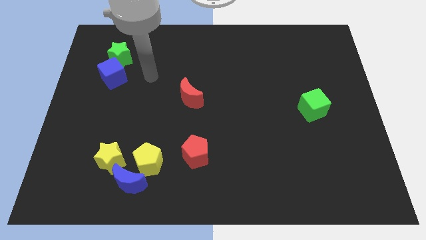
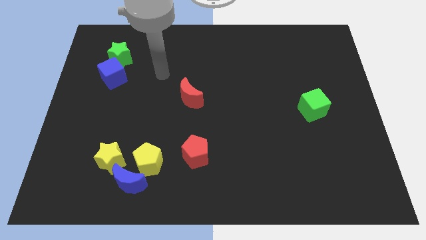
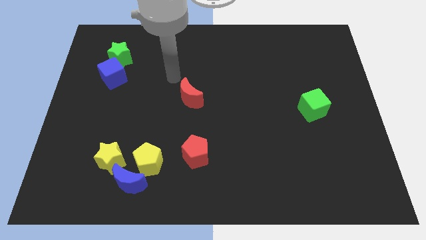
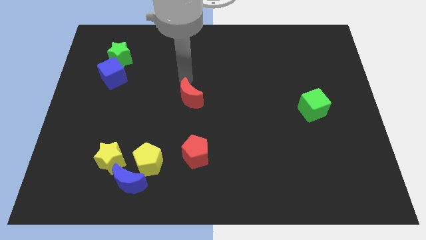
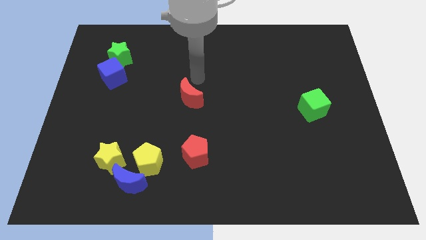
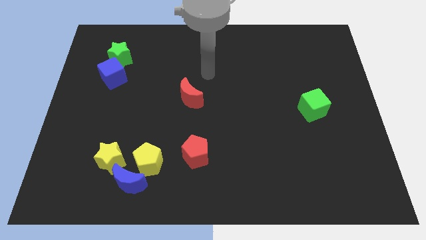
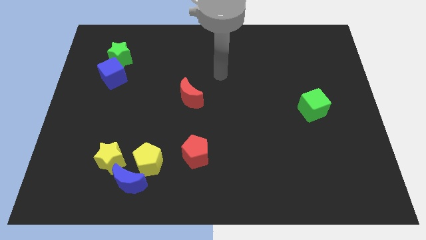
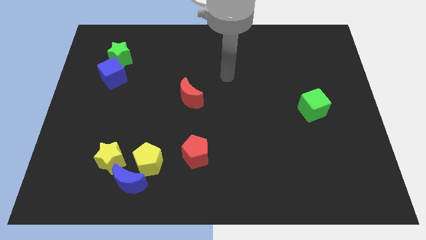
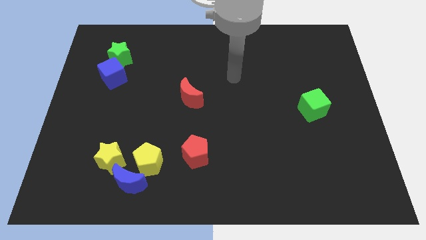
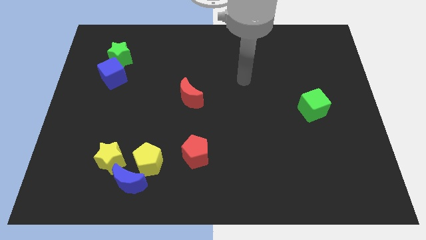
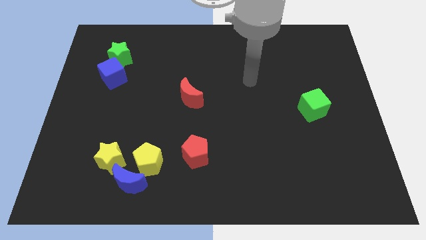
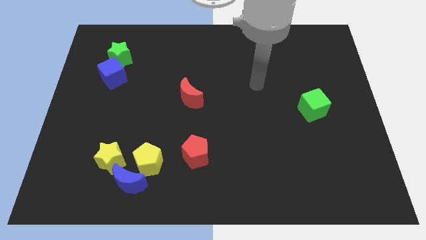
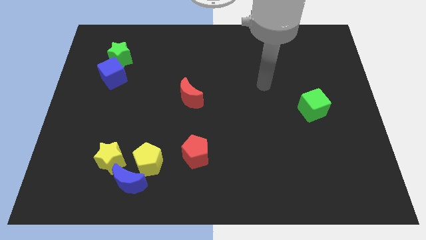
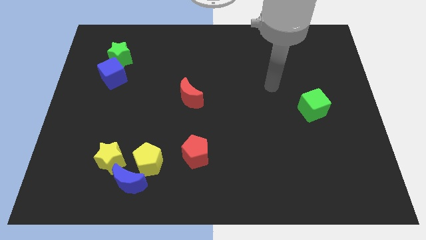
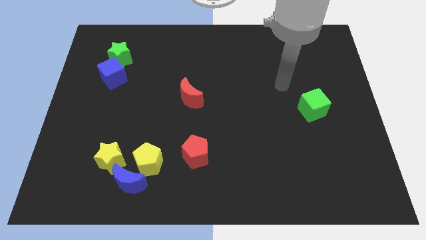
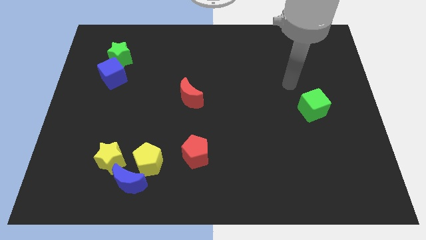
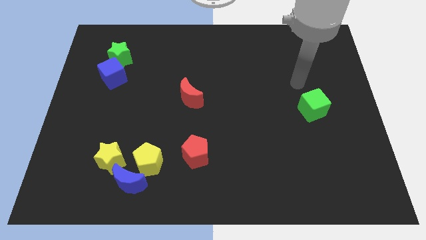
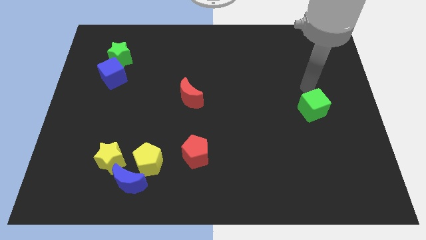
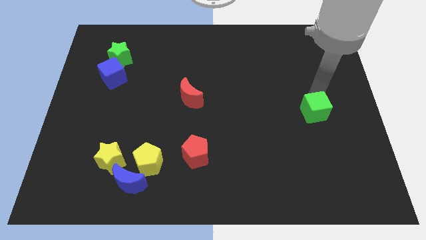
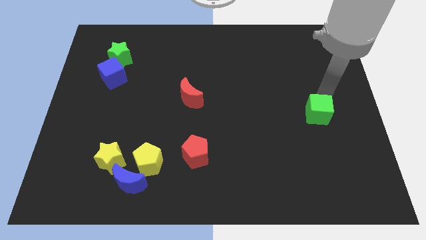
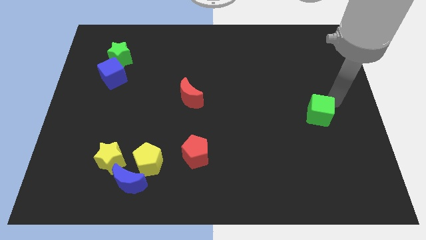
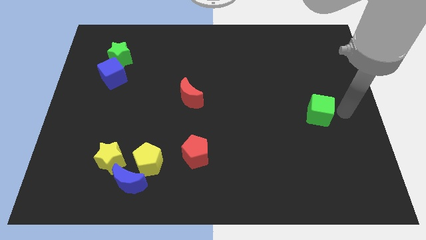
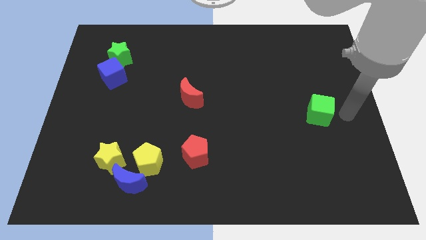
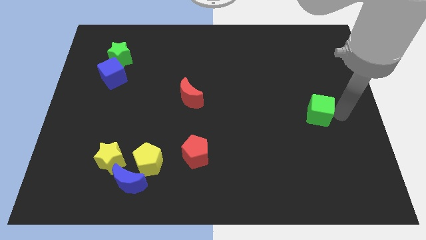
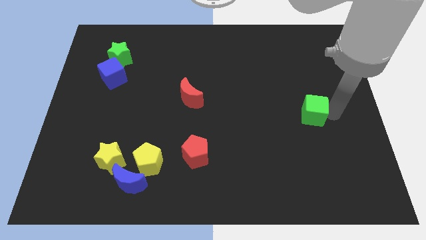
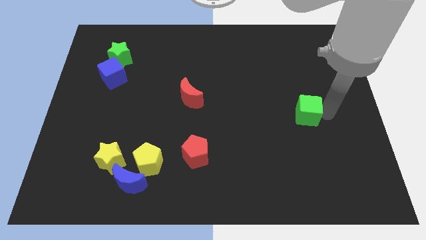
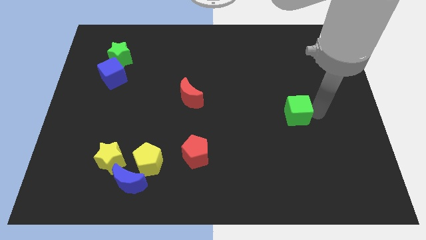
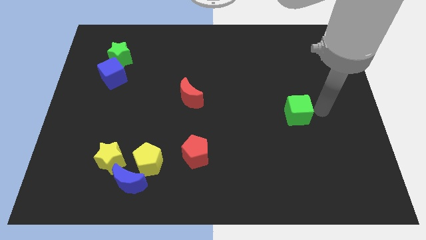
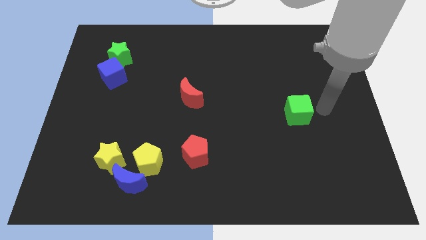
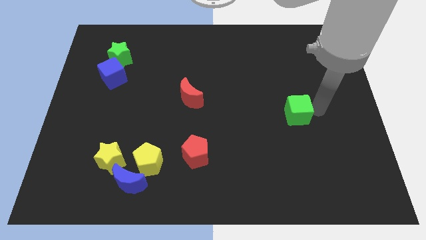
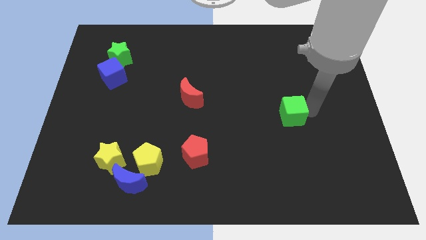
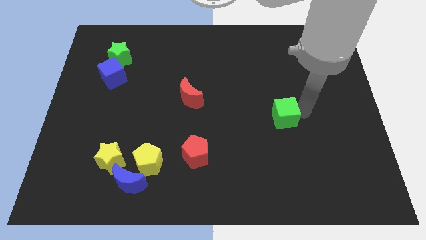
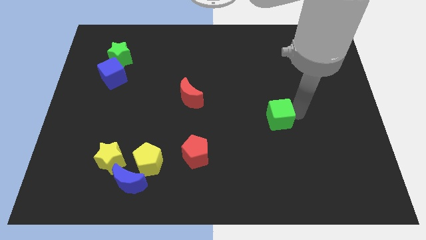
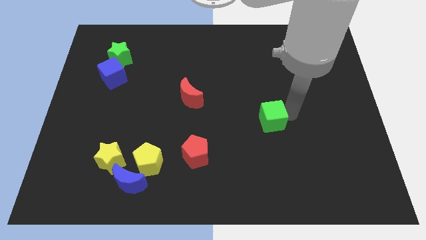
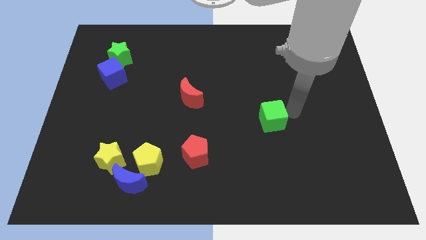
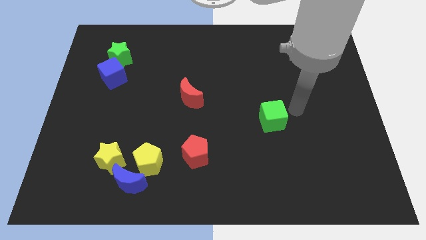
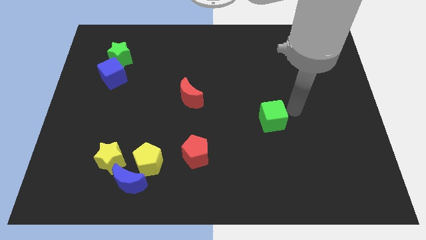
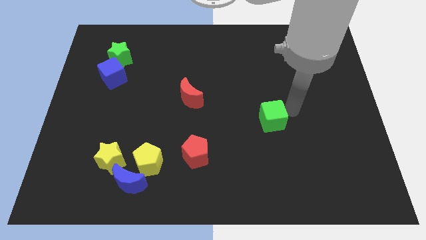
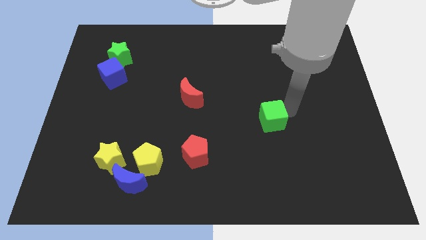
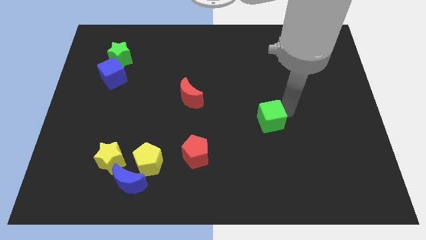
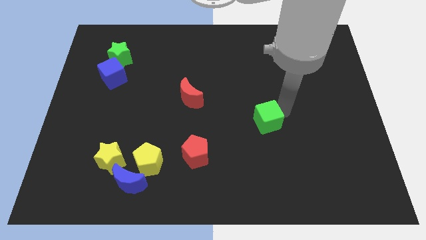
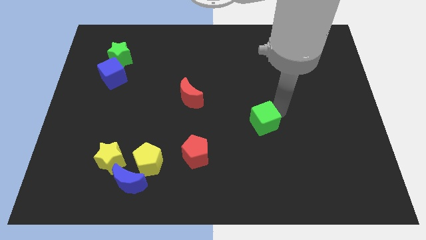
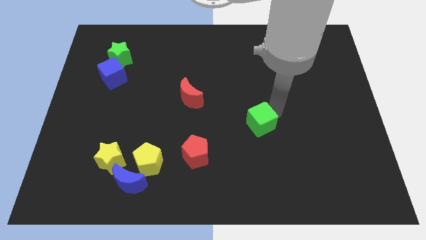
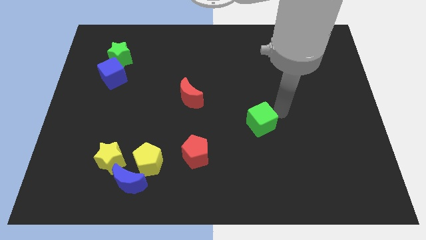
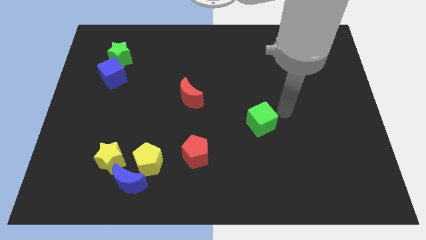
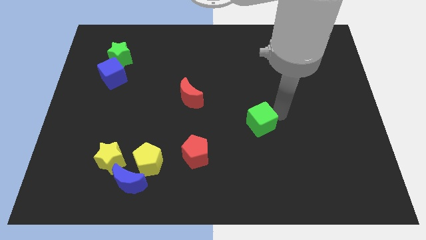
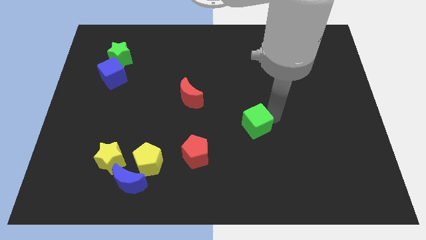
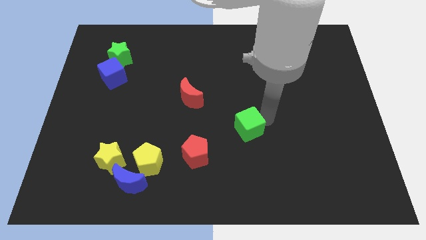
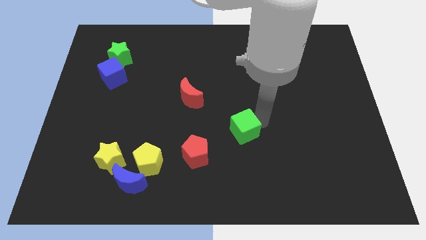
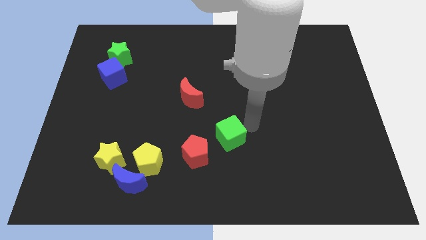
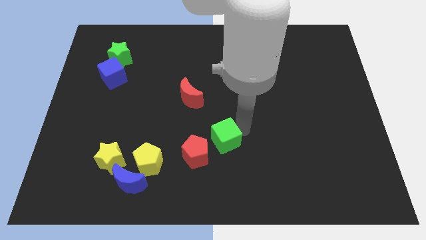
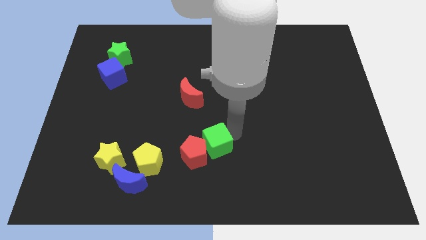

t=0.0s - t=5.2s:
push the green cube to the red pentagon

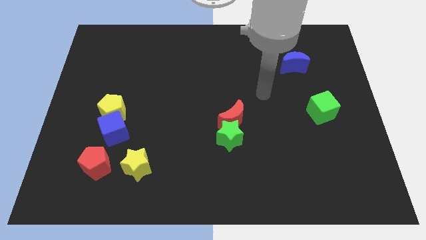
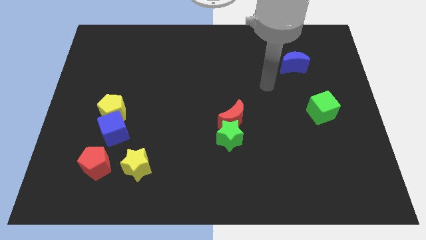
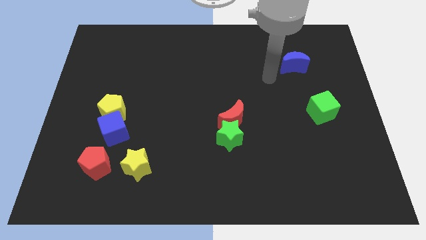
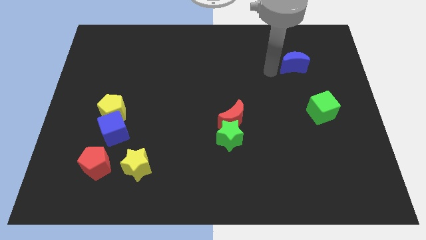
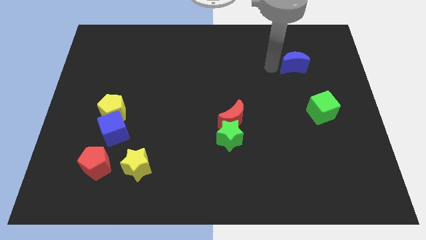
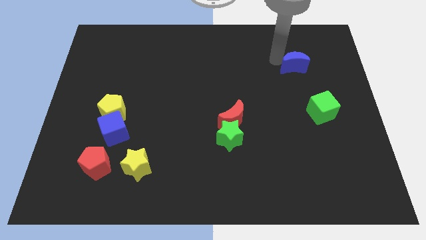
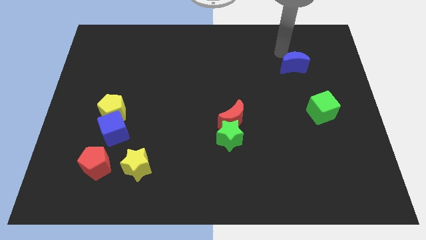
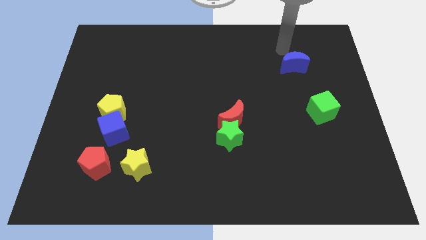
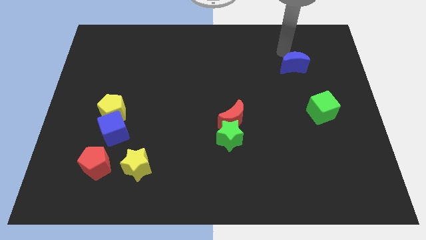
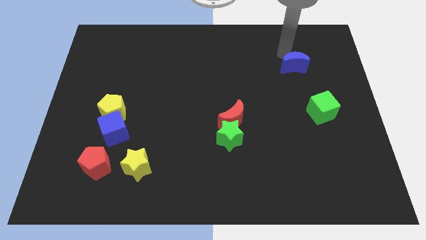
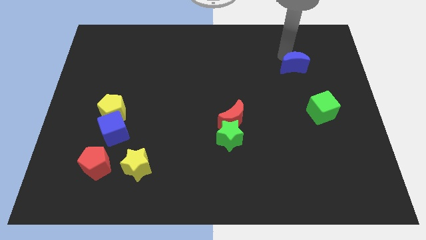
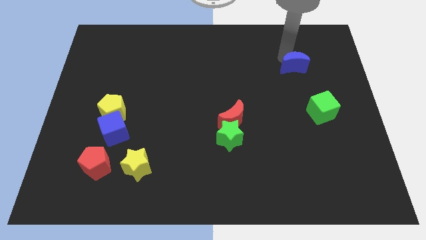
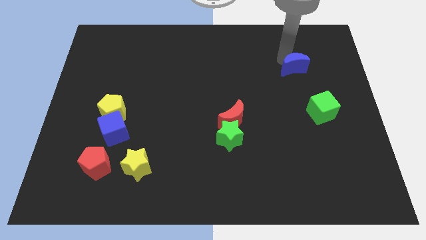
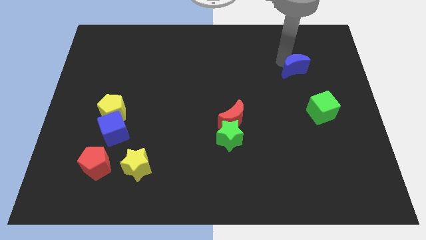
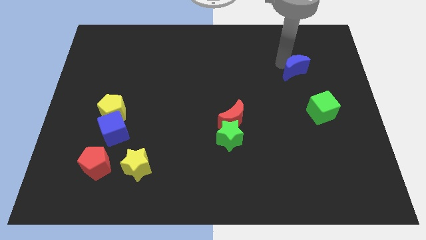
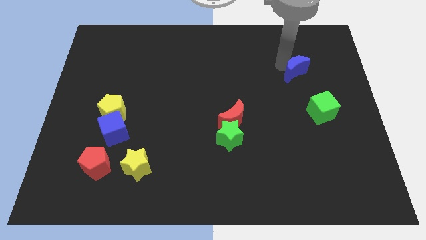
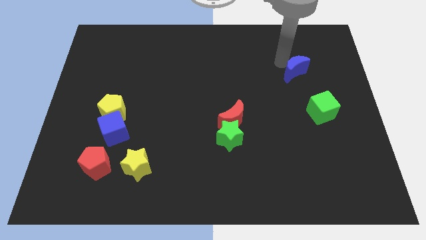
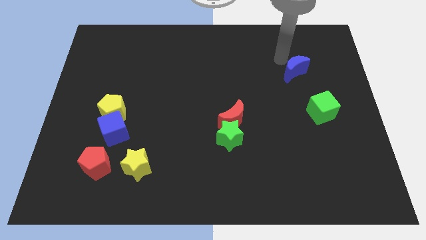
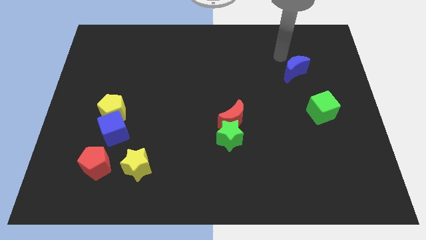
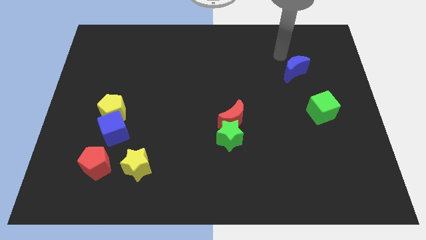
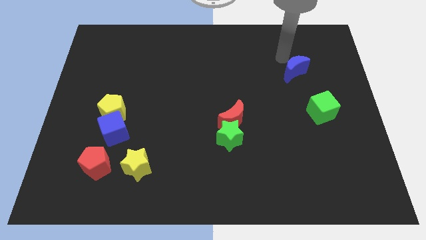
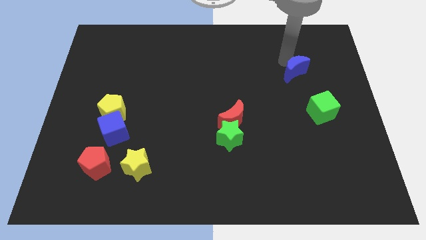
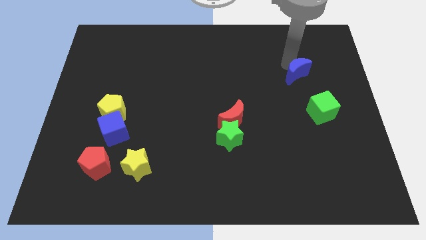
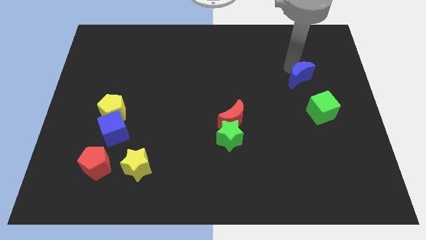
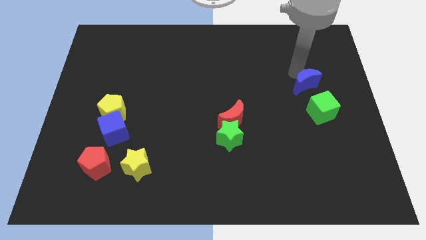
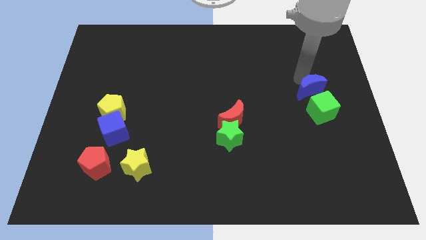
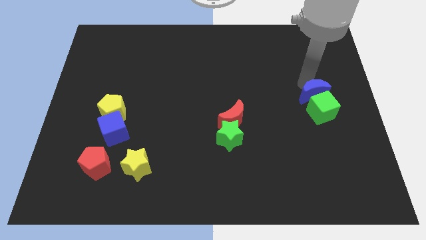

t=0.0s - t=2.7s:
slide the blue moon close to the green cube
